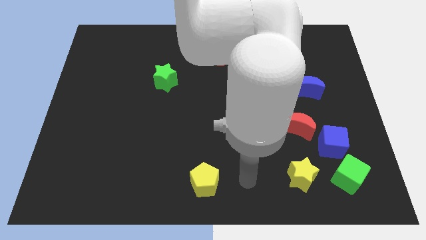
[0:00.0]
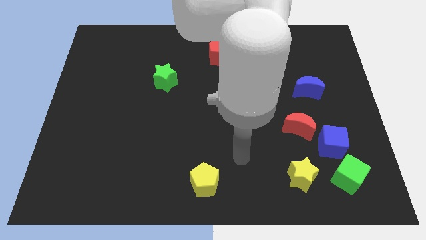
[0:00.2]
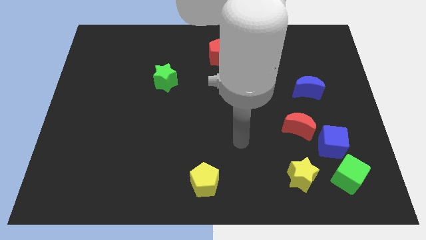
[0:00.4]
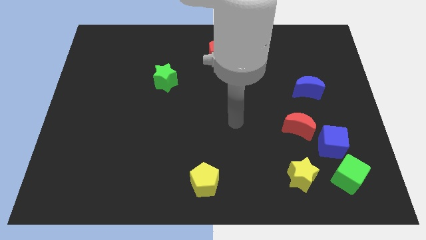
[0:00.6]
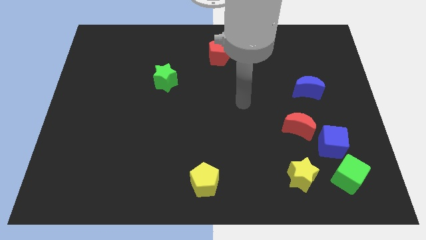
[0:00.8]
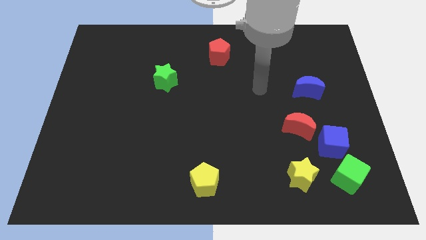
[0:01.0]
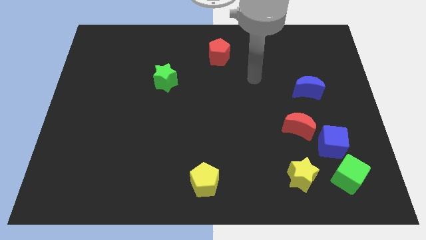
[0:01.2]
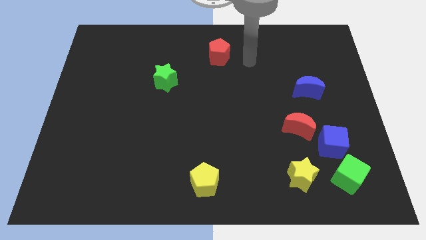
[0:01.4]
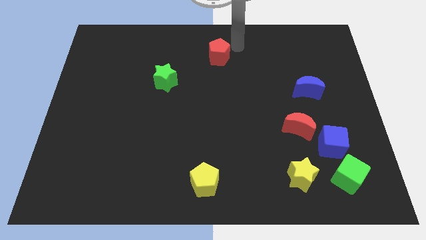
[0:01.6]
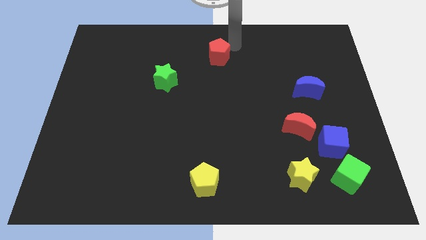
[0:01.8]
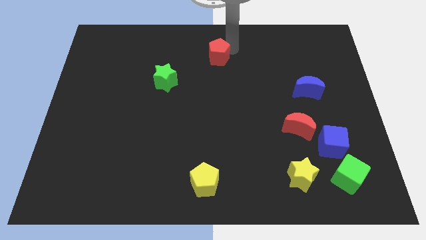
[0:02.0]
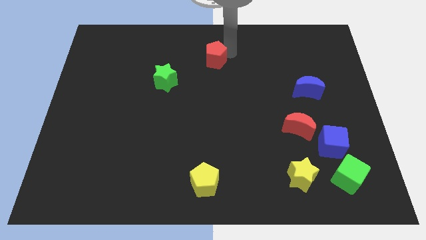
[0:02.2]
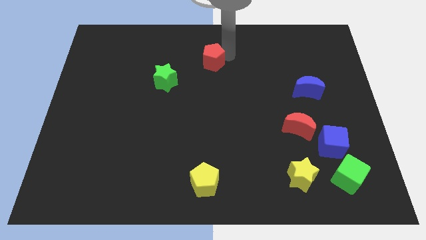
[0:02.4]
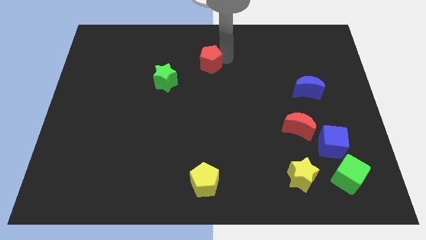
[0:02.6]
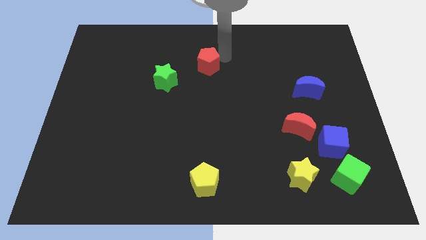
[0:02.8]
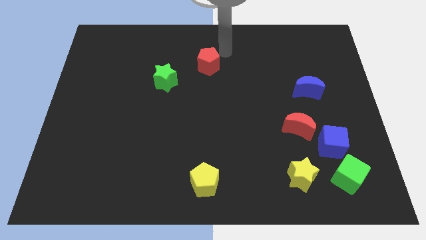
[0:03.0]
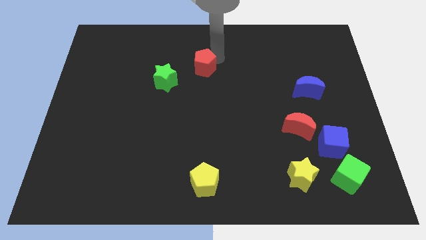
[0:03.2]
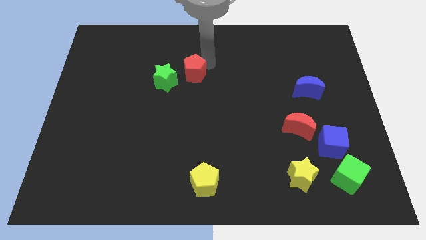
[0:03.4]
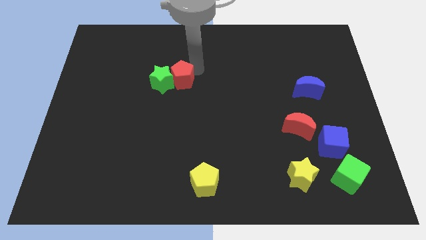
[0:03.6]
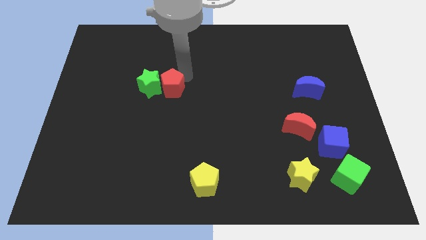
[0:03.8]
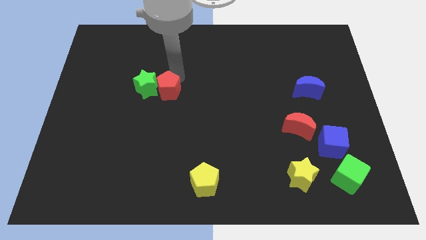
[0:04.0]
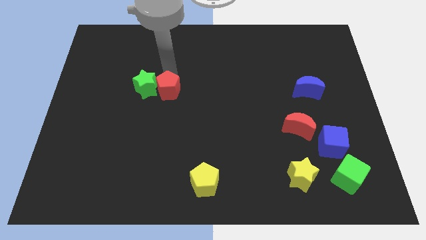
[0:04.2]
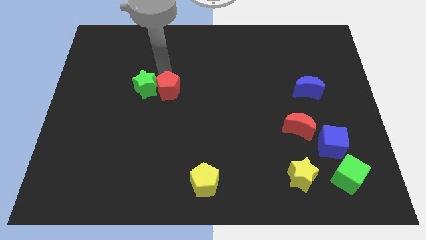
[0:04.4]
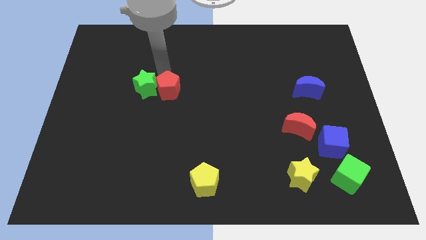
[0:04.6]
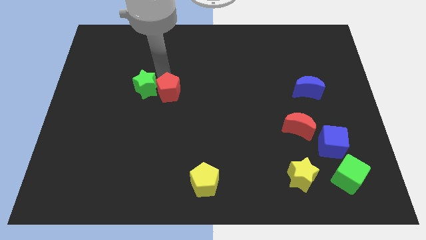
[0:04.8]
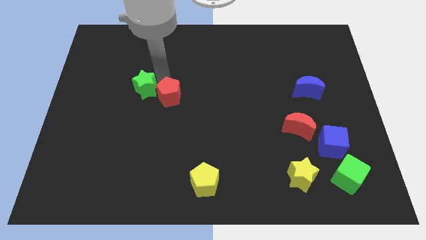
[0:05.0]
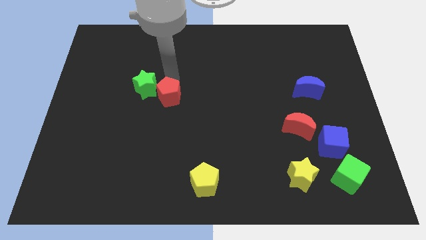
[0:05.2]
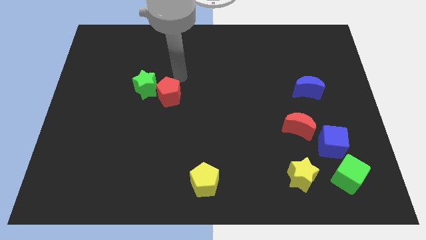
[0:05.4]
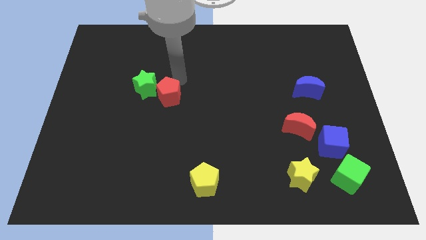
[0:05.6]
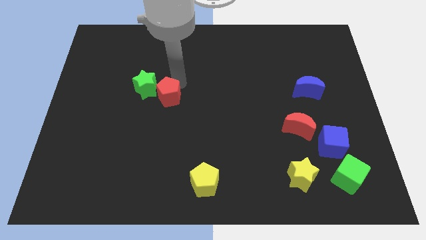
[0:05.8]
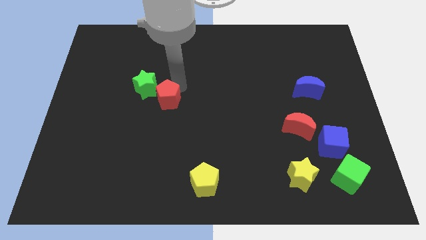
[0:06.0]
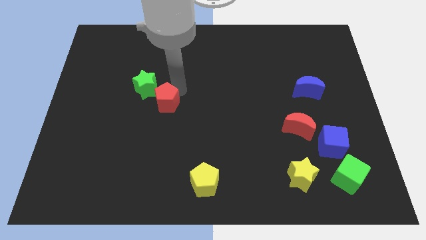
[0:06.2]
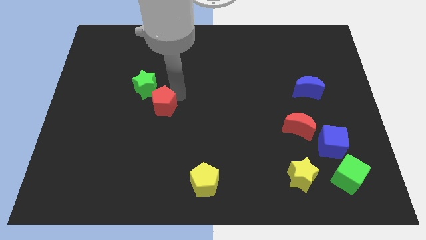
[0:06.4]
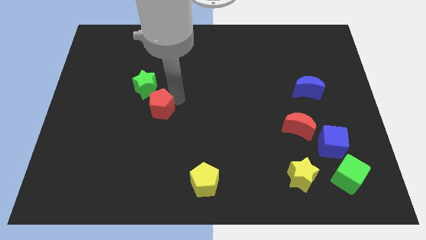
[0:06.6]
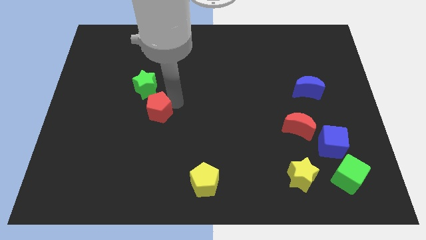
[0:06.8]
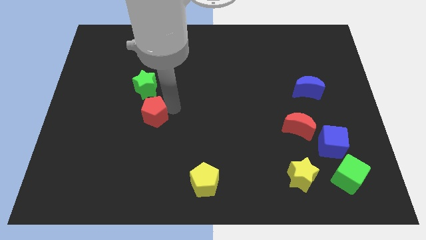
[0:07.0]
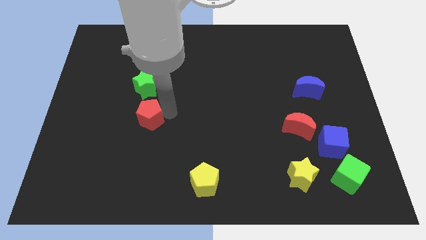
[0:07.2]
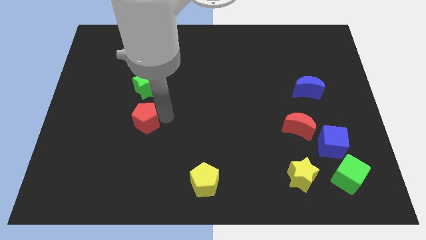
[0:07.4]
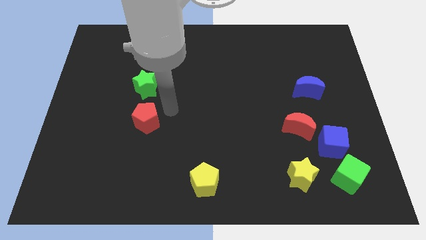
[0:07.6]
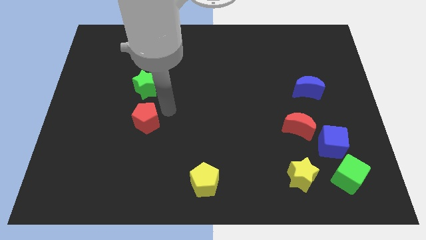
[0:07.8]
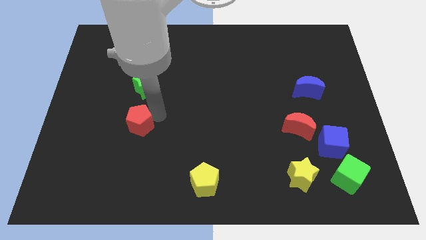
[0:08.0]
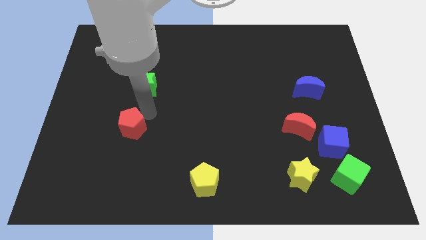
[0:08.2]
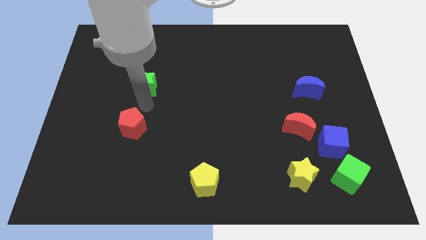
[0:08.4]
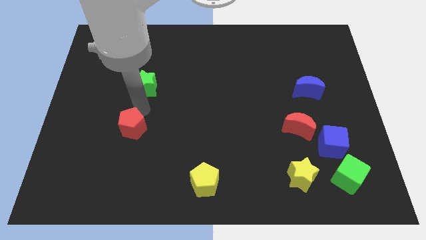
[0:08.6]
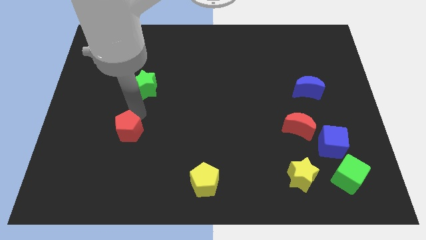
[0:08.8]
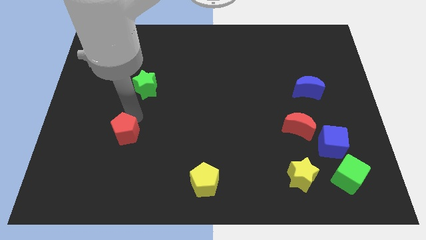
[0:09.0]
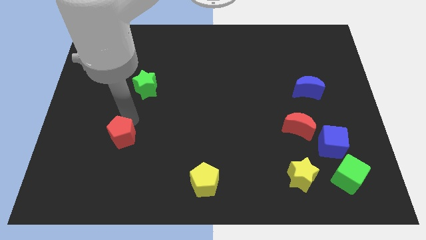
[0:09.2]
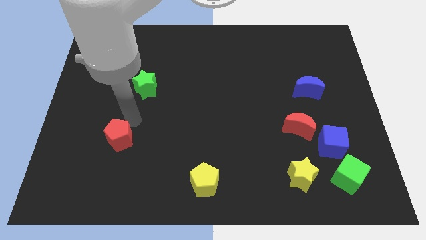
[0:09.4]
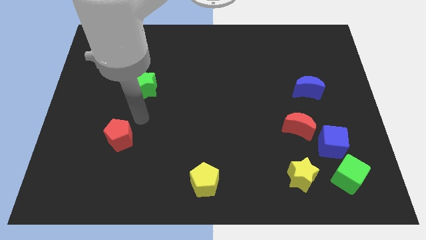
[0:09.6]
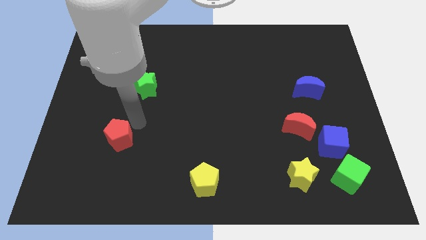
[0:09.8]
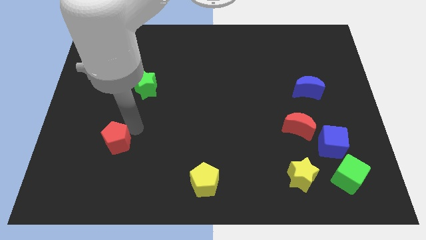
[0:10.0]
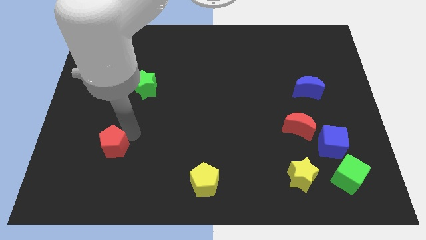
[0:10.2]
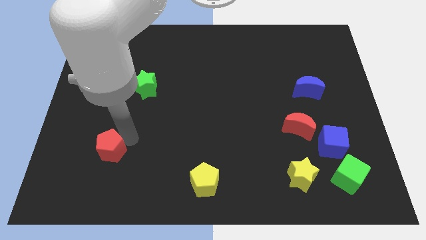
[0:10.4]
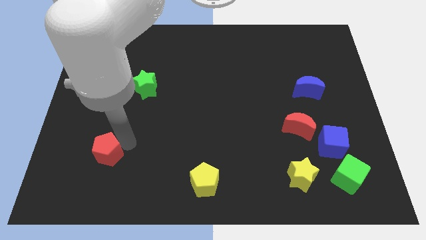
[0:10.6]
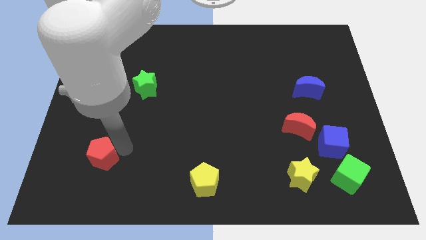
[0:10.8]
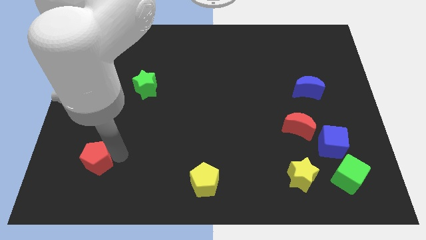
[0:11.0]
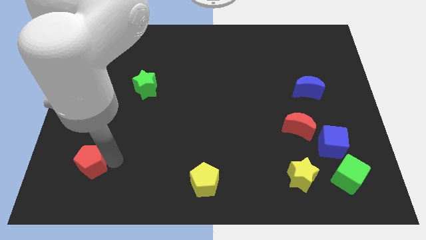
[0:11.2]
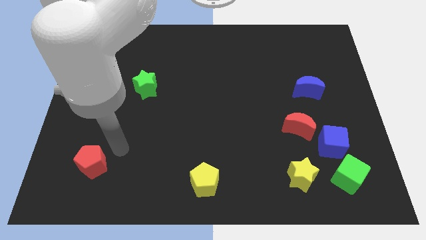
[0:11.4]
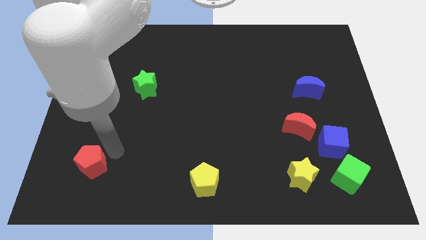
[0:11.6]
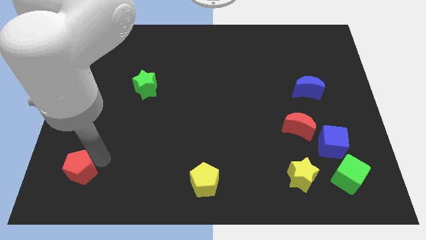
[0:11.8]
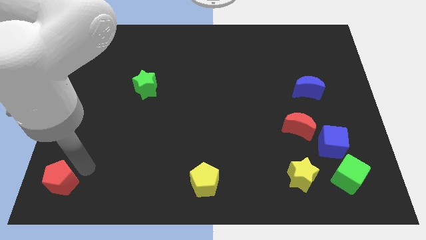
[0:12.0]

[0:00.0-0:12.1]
push the red pentagon to the bottom left

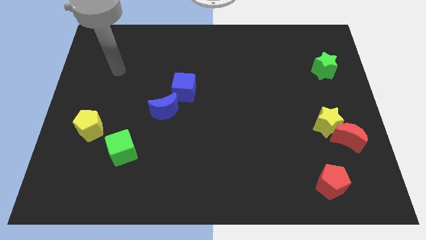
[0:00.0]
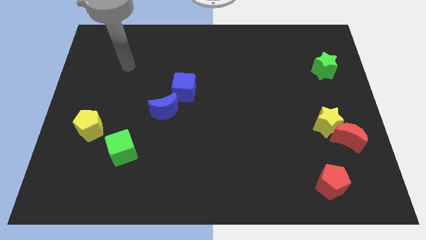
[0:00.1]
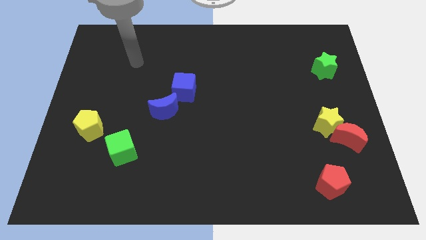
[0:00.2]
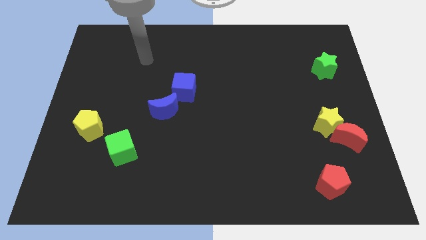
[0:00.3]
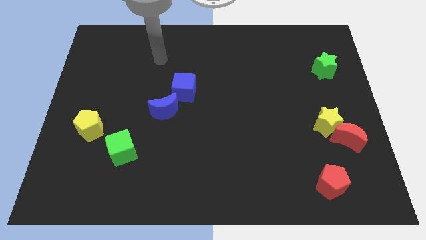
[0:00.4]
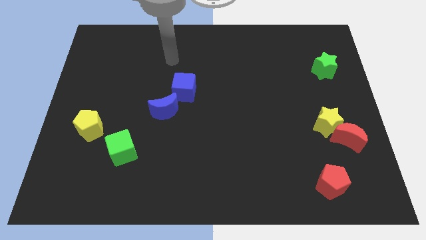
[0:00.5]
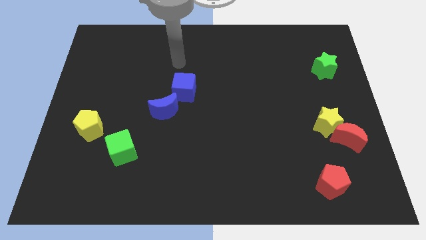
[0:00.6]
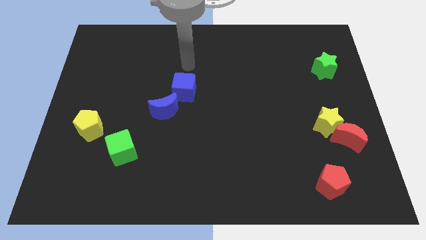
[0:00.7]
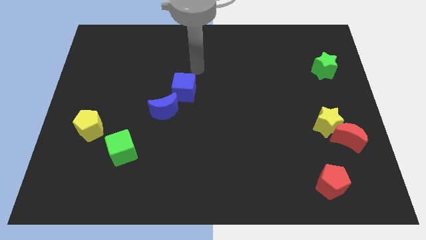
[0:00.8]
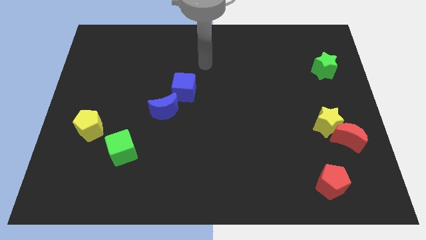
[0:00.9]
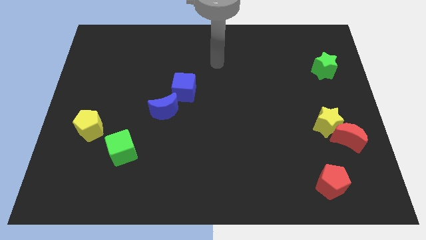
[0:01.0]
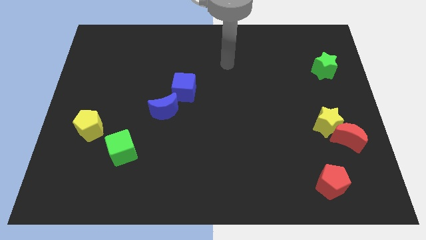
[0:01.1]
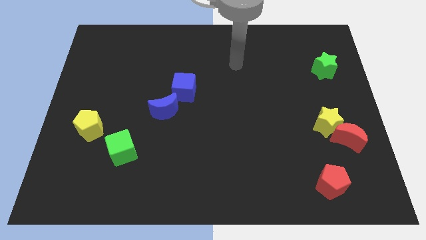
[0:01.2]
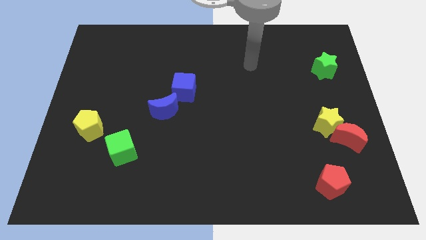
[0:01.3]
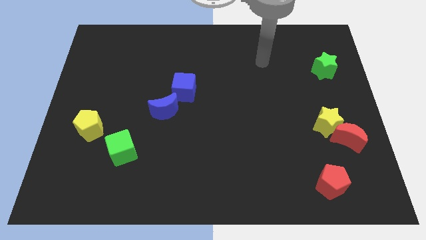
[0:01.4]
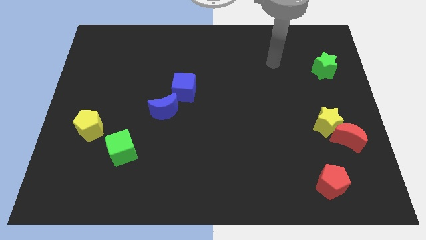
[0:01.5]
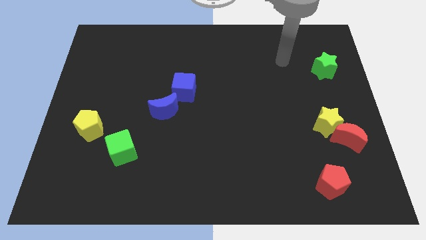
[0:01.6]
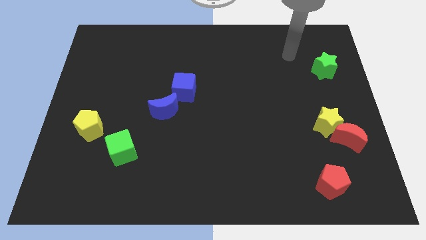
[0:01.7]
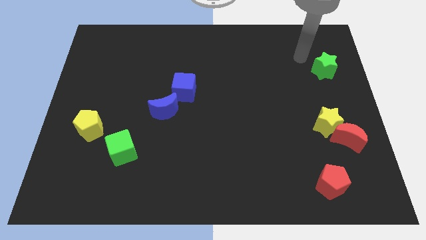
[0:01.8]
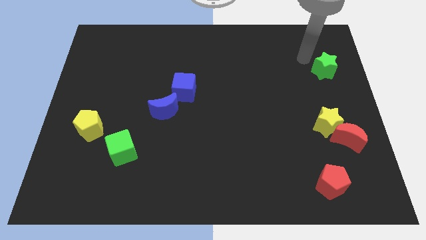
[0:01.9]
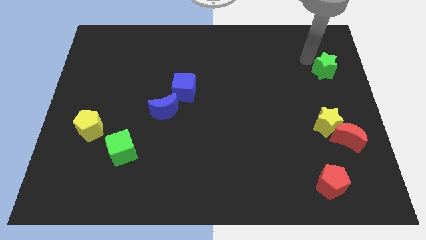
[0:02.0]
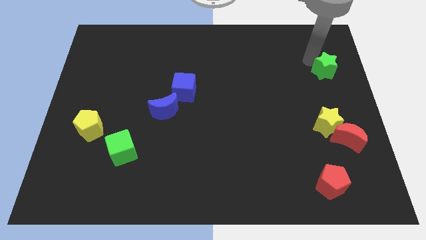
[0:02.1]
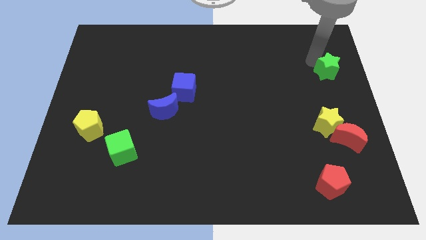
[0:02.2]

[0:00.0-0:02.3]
push the green star to the right side of the board
